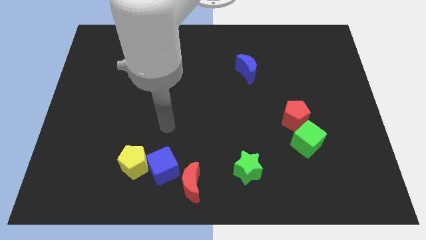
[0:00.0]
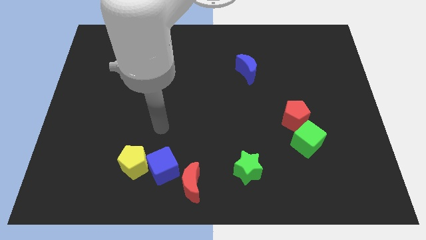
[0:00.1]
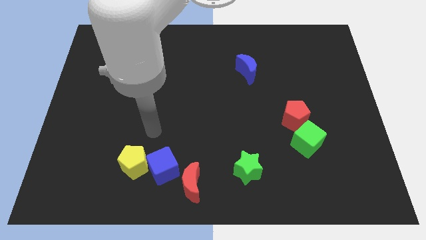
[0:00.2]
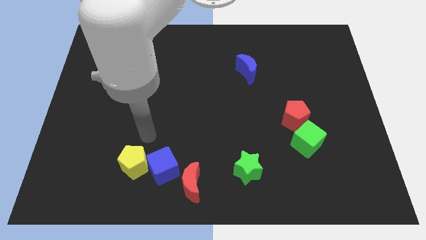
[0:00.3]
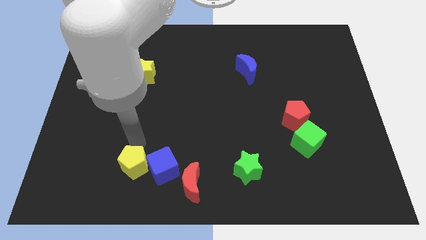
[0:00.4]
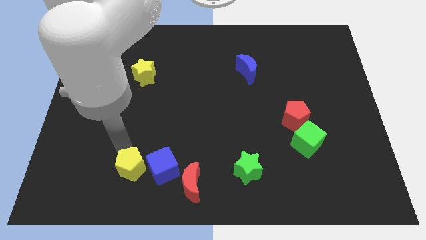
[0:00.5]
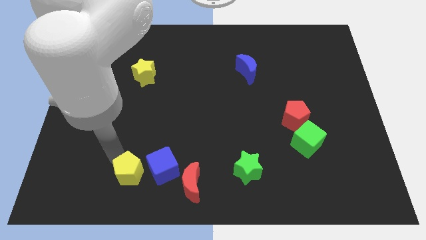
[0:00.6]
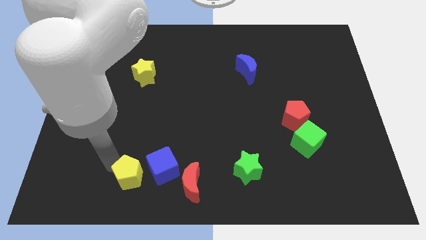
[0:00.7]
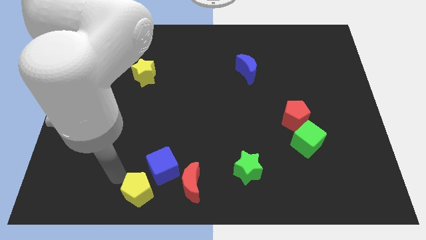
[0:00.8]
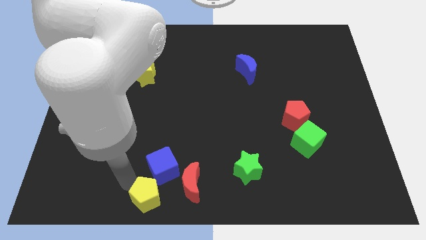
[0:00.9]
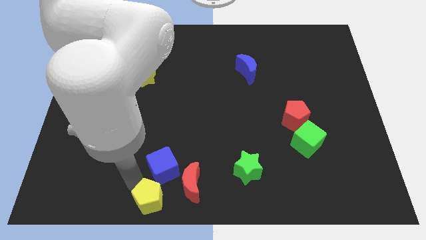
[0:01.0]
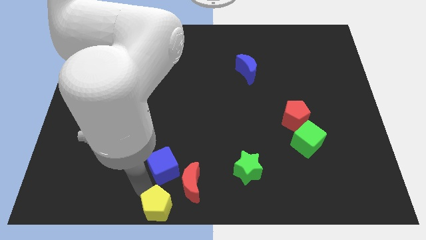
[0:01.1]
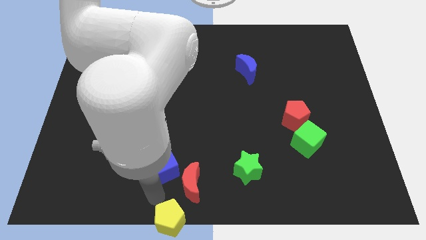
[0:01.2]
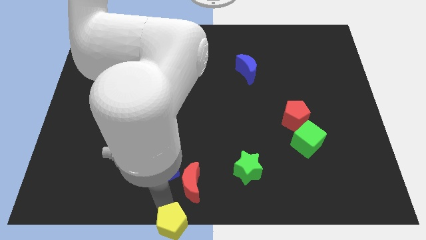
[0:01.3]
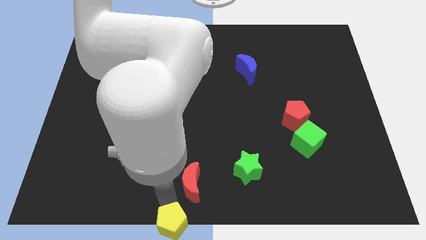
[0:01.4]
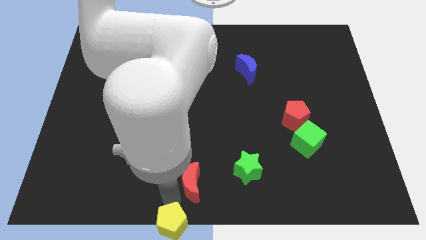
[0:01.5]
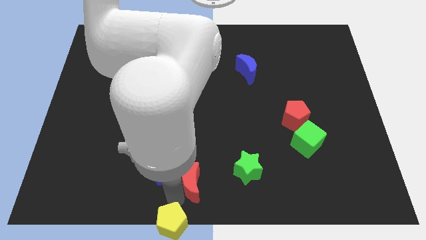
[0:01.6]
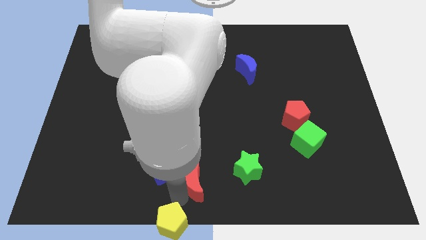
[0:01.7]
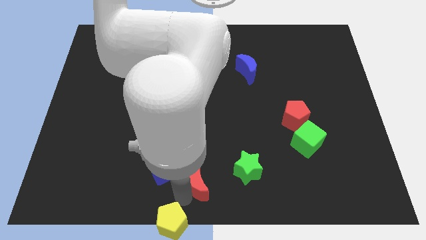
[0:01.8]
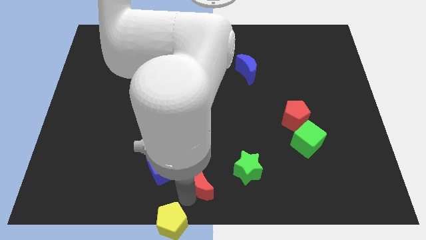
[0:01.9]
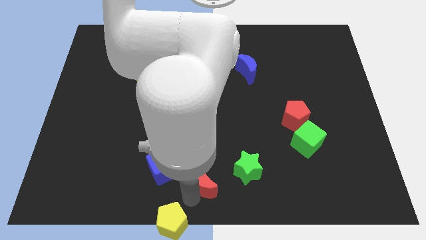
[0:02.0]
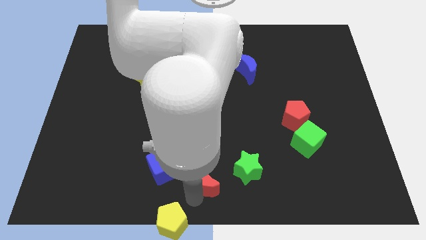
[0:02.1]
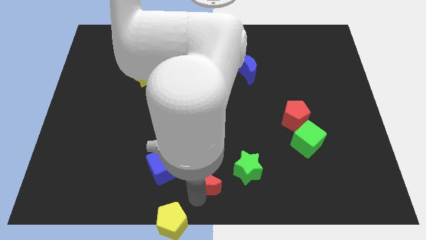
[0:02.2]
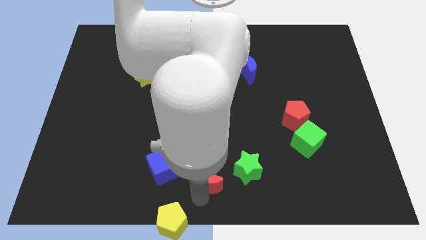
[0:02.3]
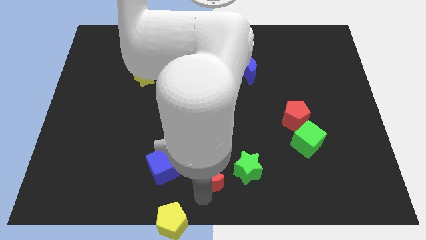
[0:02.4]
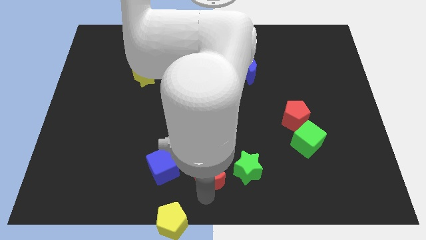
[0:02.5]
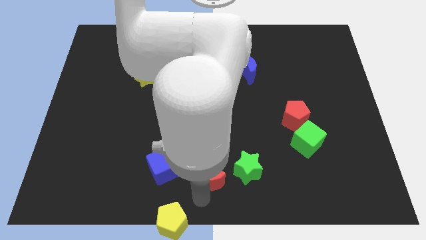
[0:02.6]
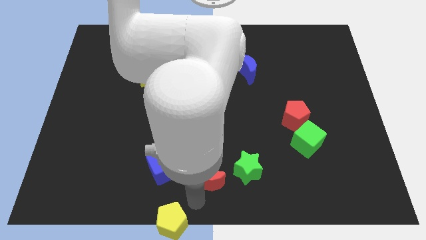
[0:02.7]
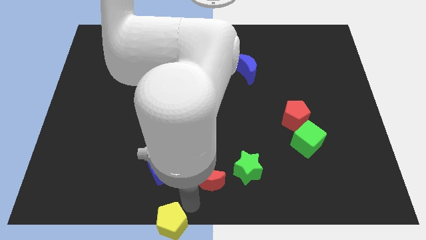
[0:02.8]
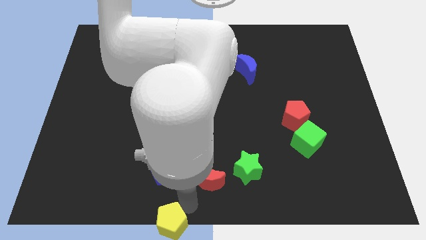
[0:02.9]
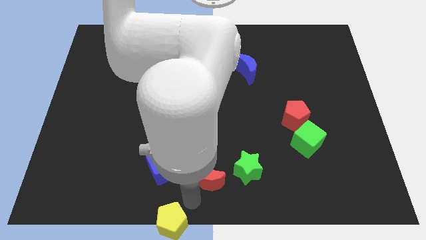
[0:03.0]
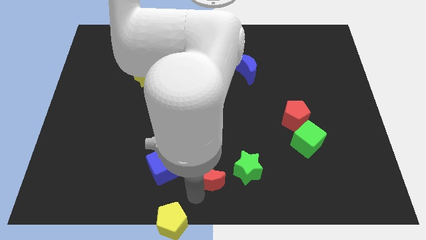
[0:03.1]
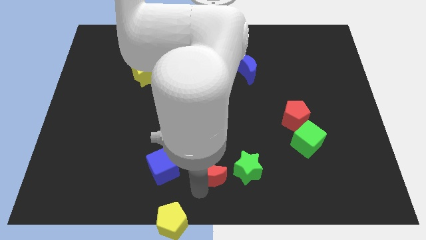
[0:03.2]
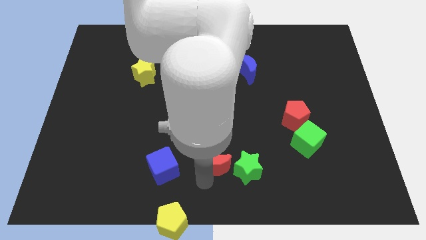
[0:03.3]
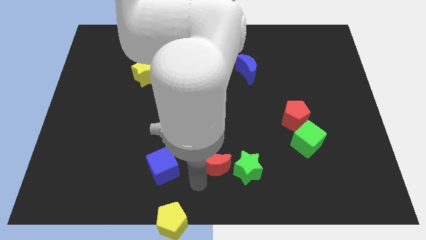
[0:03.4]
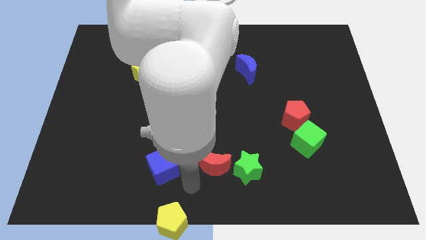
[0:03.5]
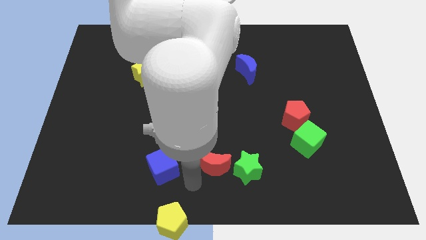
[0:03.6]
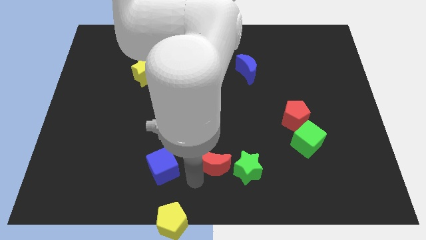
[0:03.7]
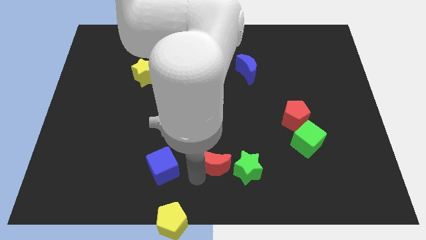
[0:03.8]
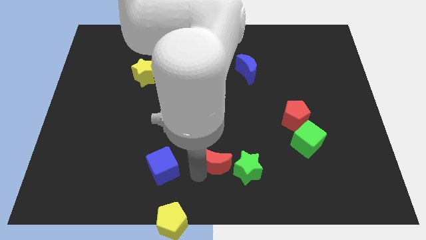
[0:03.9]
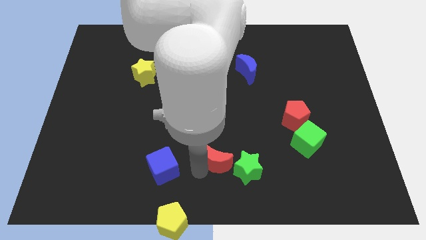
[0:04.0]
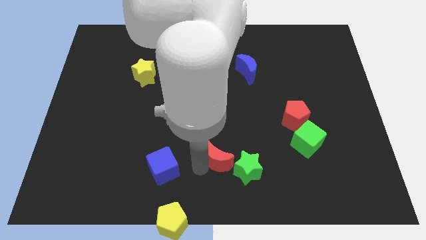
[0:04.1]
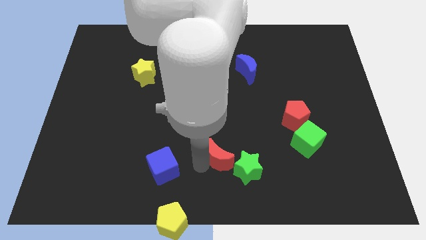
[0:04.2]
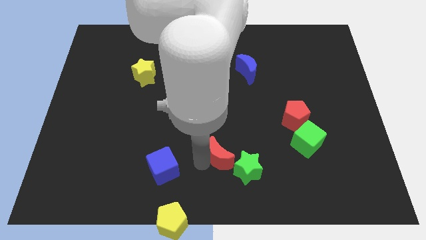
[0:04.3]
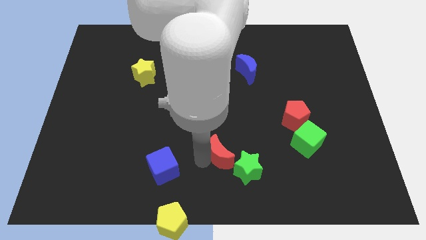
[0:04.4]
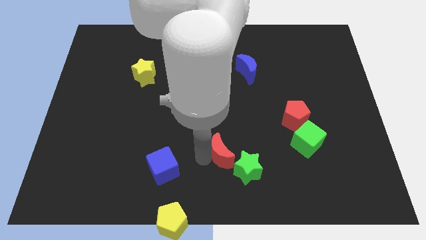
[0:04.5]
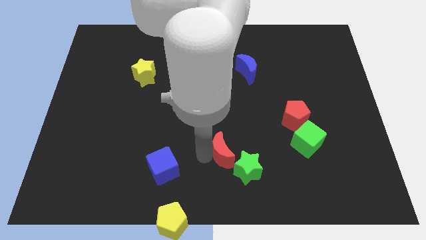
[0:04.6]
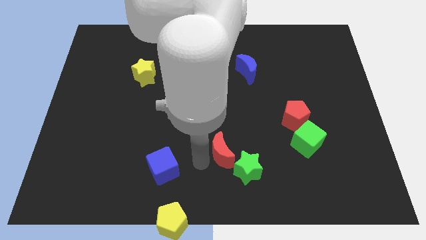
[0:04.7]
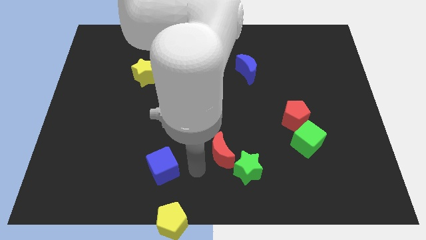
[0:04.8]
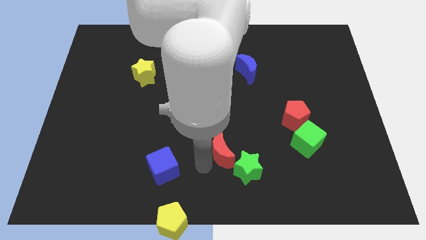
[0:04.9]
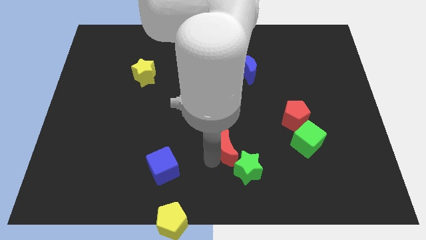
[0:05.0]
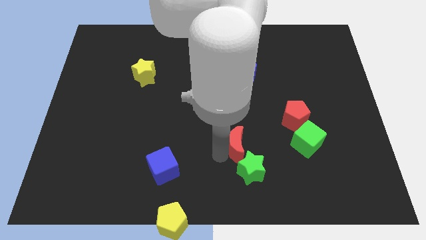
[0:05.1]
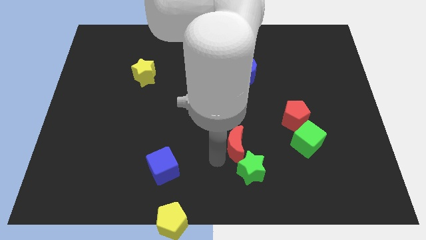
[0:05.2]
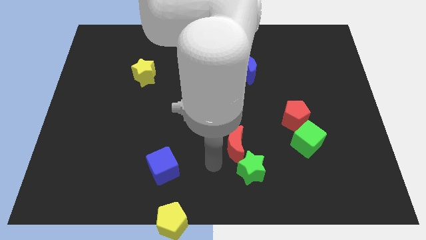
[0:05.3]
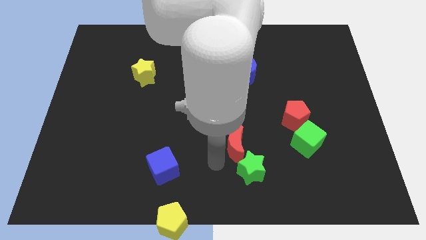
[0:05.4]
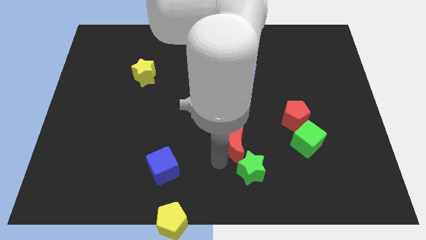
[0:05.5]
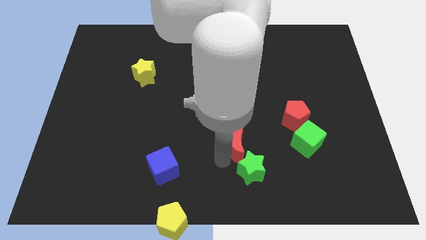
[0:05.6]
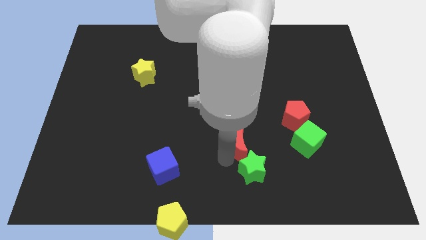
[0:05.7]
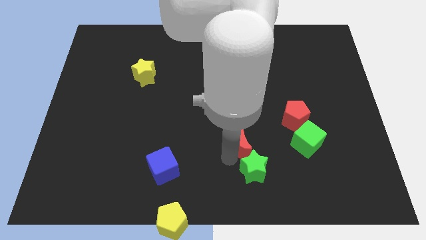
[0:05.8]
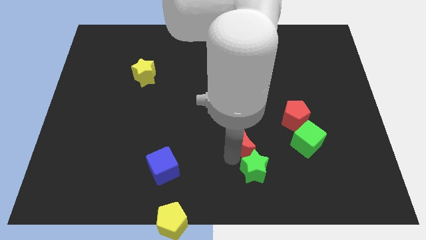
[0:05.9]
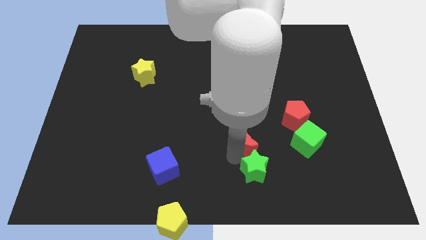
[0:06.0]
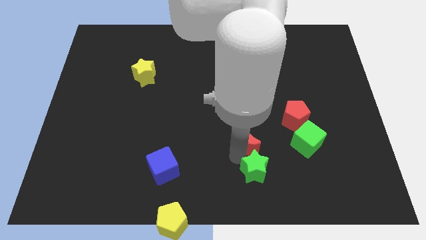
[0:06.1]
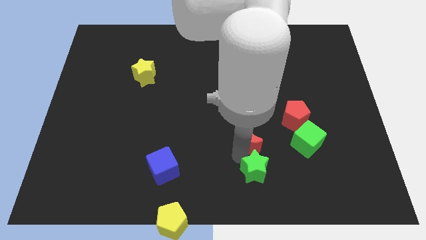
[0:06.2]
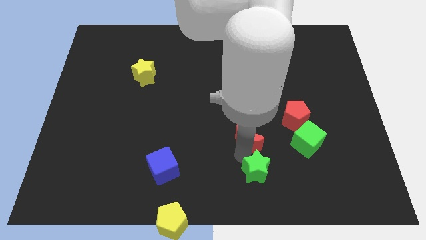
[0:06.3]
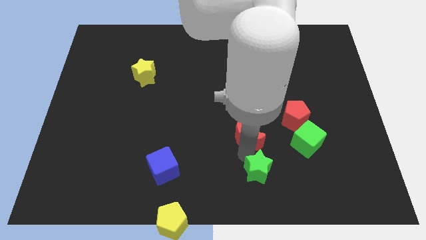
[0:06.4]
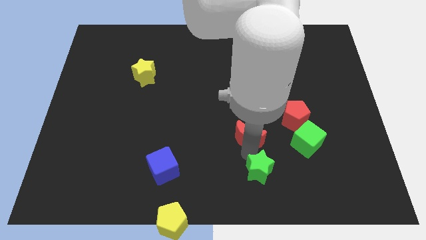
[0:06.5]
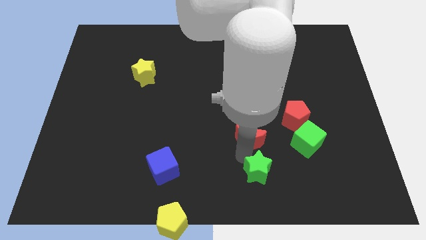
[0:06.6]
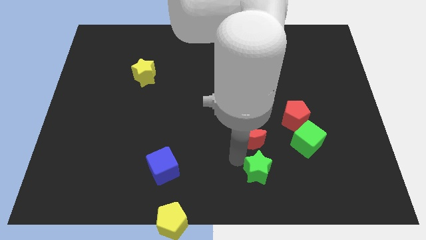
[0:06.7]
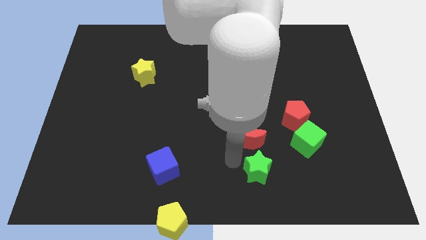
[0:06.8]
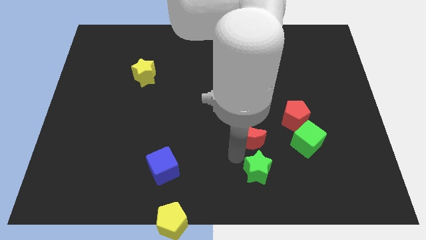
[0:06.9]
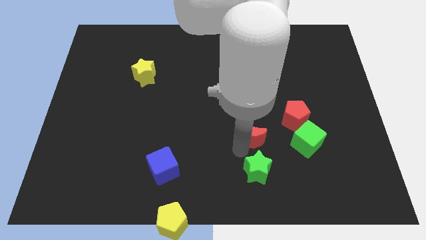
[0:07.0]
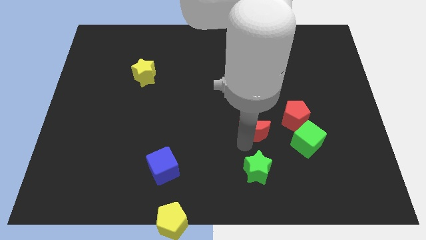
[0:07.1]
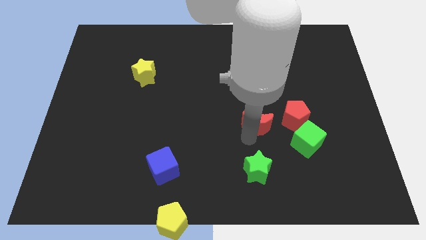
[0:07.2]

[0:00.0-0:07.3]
push the red moon upwards and right

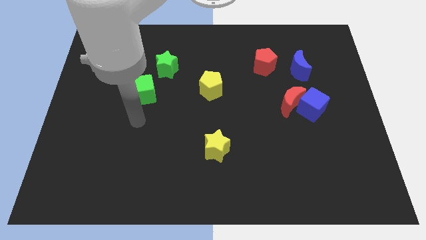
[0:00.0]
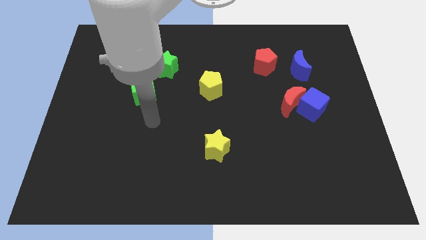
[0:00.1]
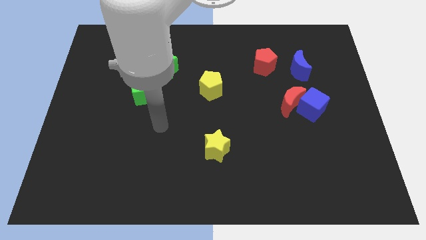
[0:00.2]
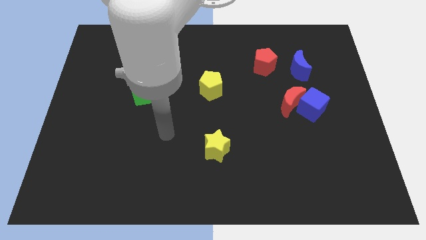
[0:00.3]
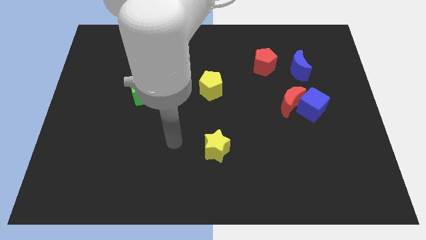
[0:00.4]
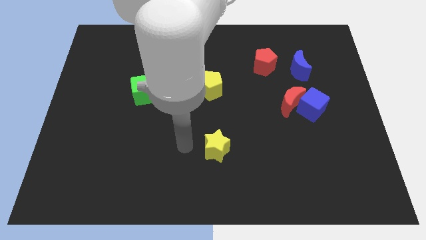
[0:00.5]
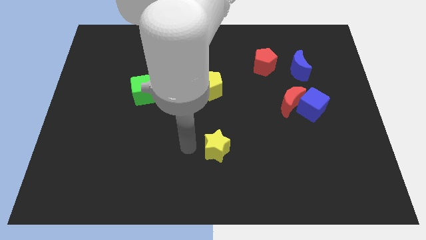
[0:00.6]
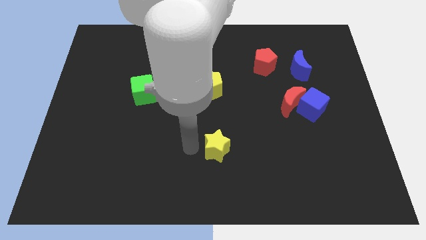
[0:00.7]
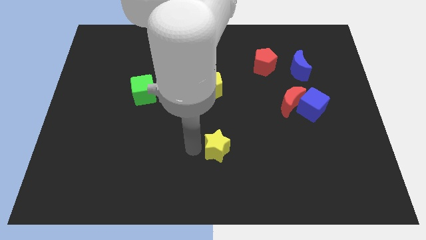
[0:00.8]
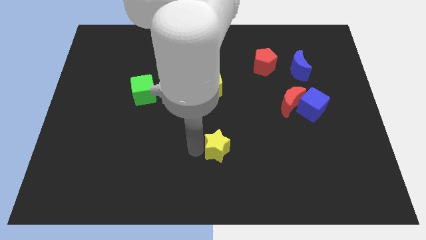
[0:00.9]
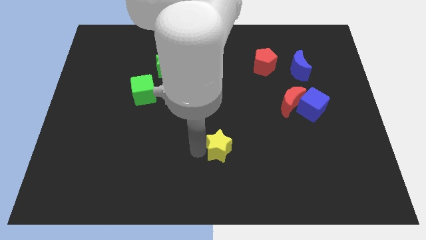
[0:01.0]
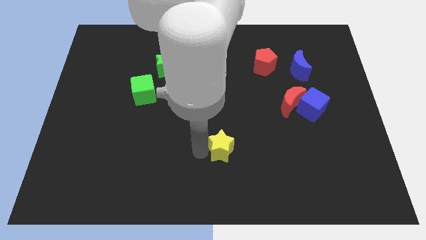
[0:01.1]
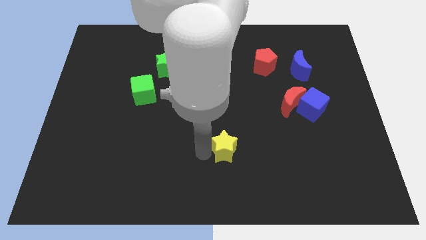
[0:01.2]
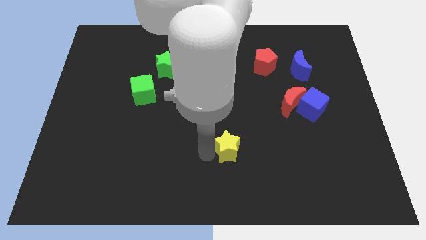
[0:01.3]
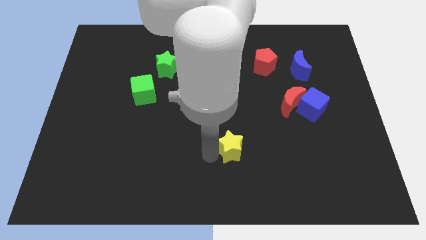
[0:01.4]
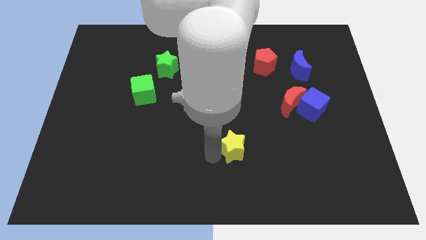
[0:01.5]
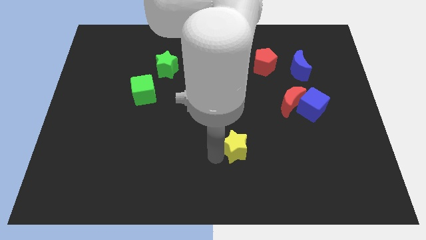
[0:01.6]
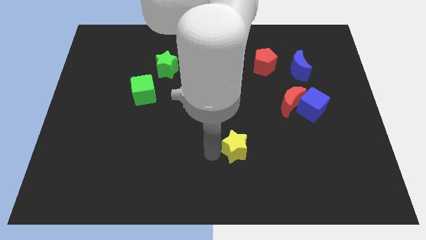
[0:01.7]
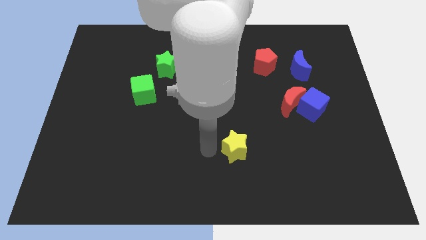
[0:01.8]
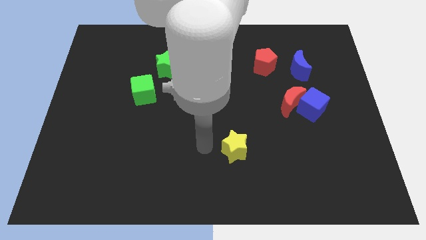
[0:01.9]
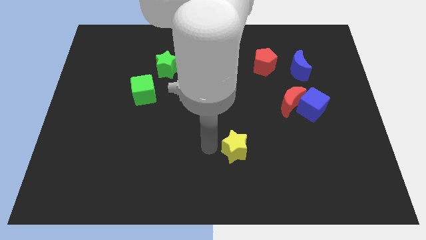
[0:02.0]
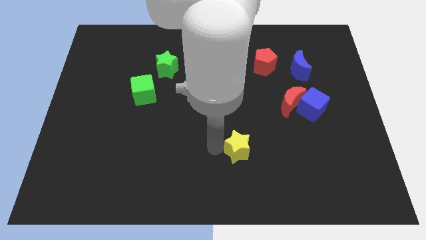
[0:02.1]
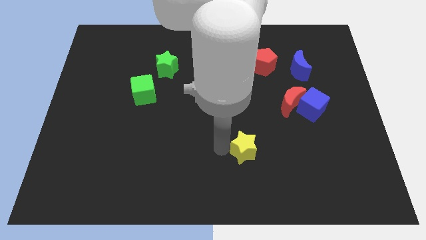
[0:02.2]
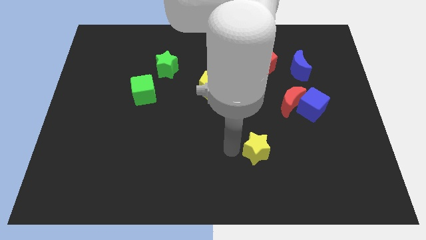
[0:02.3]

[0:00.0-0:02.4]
slightly push the yellow star right
